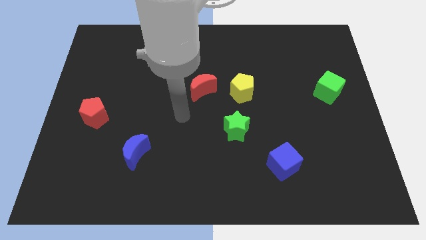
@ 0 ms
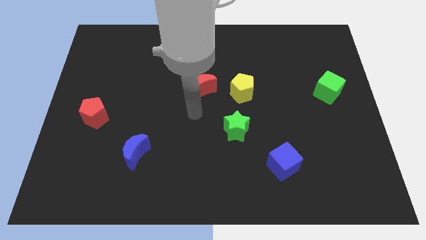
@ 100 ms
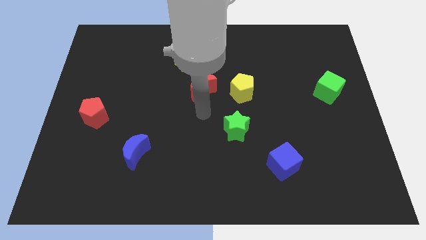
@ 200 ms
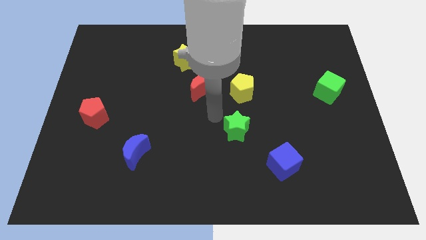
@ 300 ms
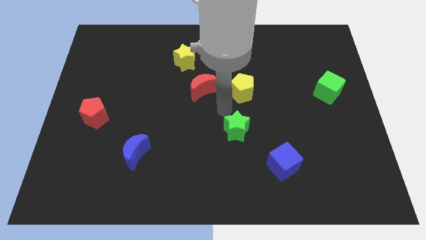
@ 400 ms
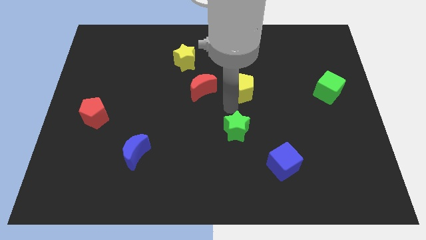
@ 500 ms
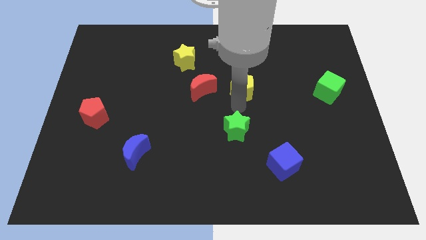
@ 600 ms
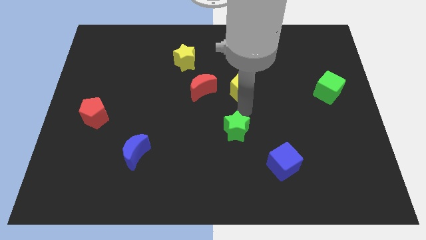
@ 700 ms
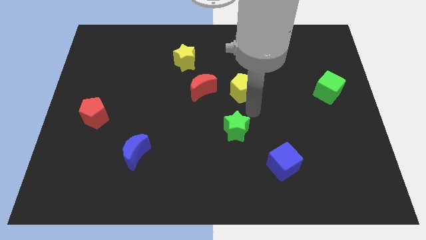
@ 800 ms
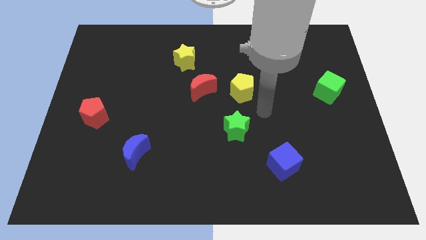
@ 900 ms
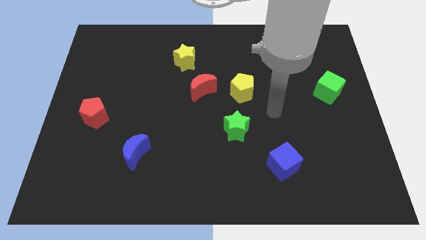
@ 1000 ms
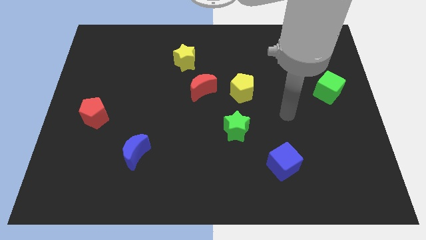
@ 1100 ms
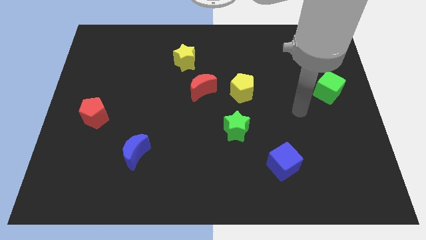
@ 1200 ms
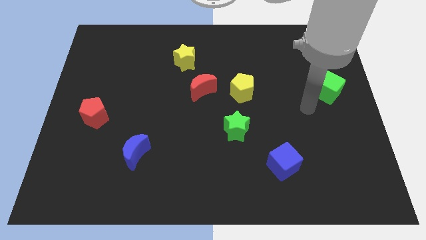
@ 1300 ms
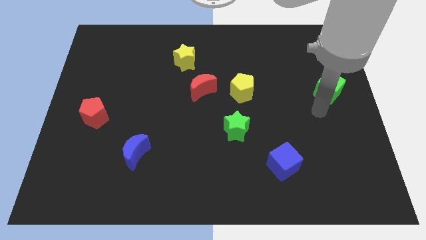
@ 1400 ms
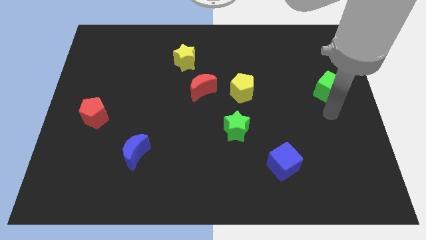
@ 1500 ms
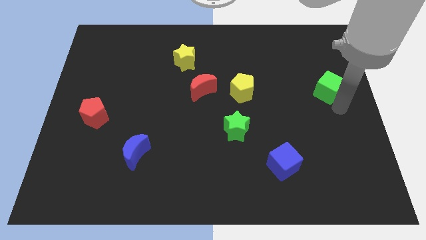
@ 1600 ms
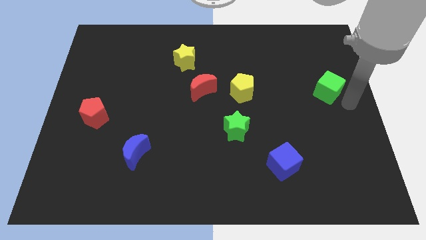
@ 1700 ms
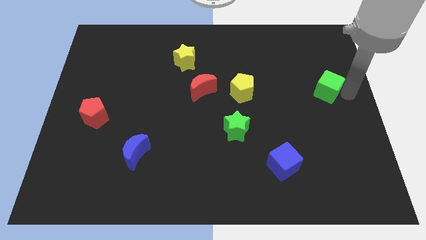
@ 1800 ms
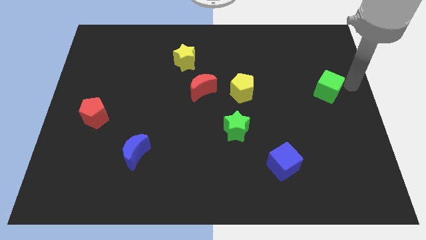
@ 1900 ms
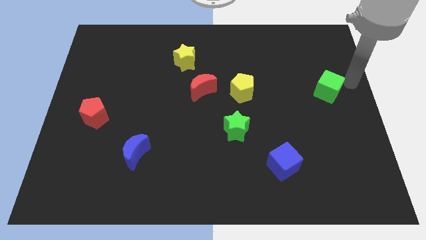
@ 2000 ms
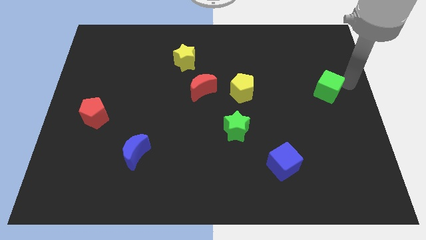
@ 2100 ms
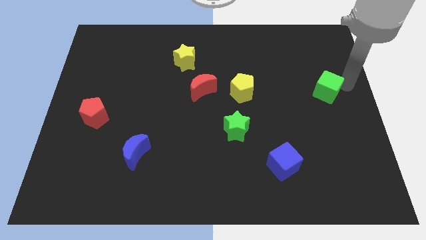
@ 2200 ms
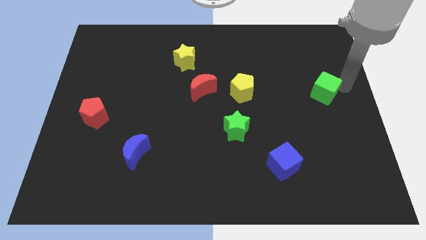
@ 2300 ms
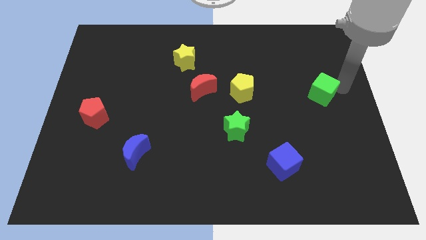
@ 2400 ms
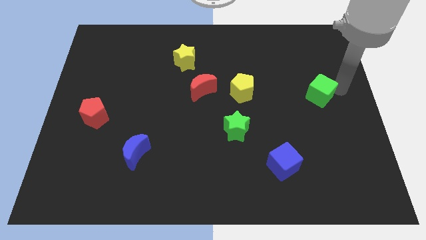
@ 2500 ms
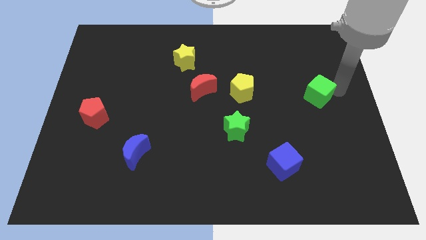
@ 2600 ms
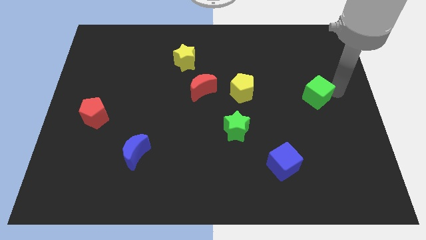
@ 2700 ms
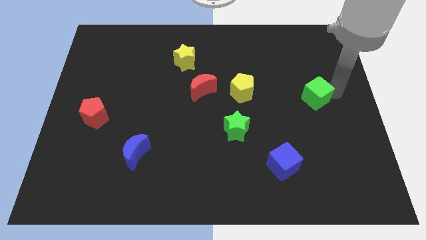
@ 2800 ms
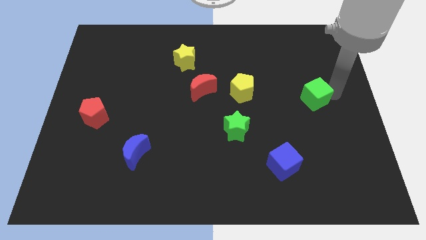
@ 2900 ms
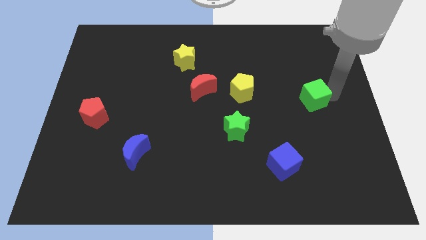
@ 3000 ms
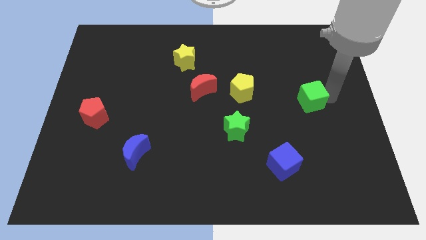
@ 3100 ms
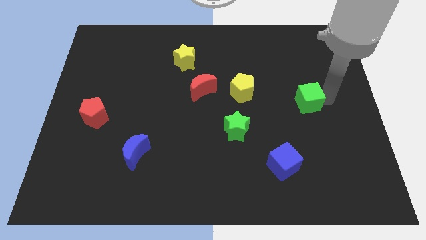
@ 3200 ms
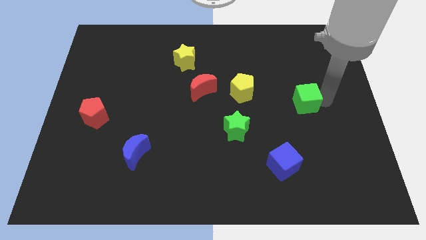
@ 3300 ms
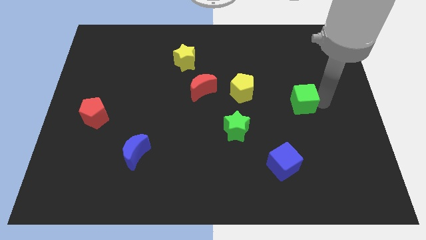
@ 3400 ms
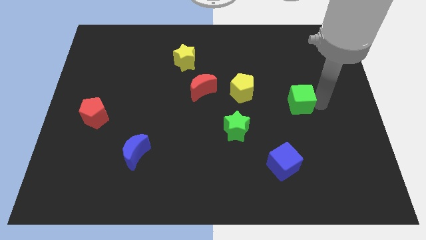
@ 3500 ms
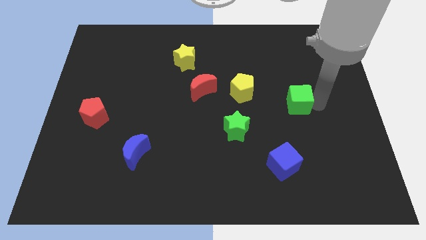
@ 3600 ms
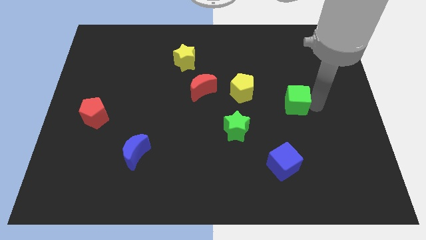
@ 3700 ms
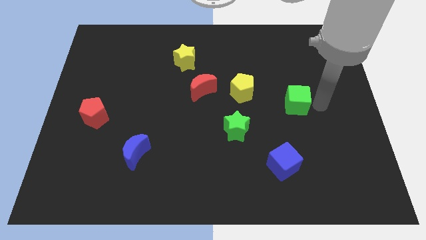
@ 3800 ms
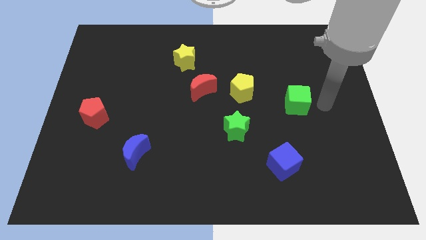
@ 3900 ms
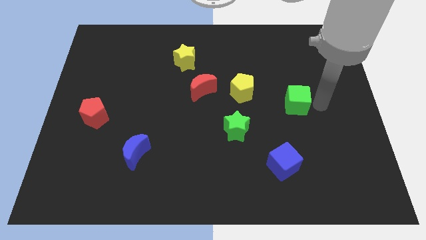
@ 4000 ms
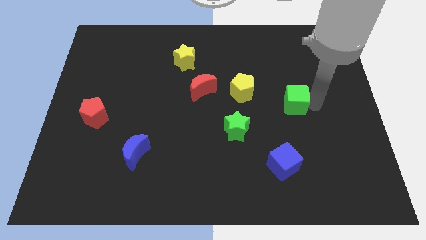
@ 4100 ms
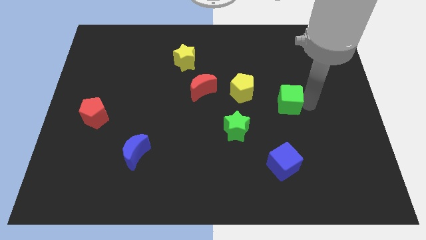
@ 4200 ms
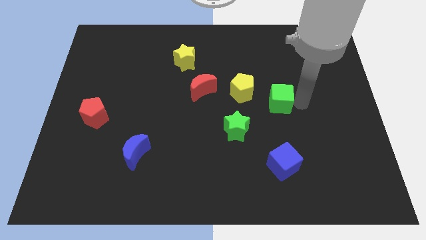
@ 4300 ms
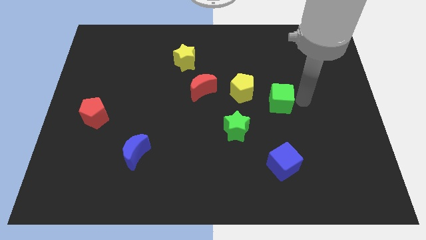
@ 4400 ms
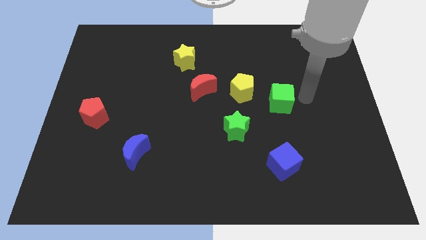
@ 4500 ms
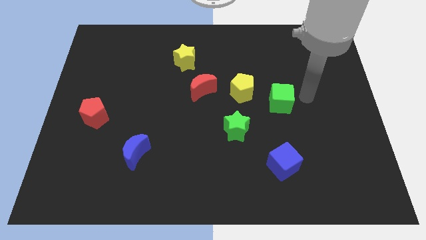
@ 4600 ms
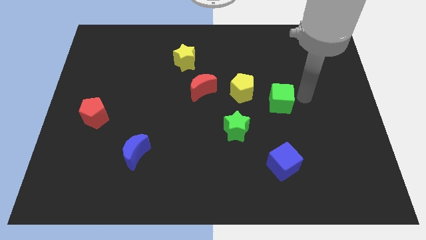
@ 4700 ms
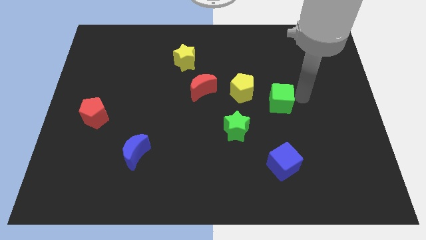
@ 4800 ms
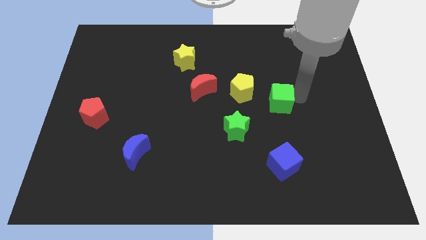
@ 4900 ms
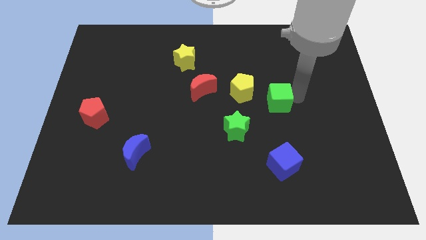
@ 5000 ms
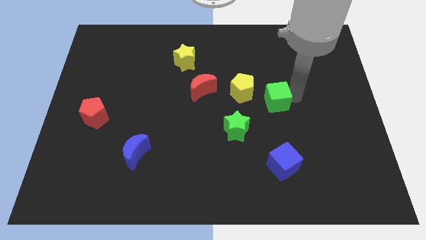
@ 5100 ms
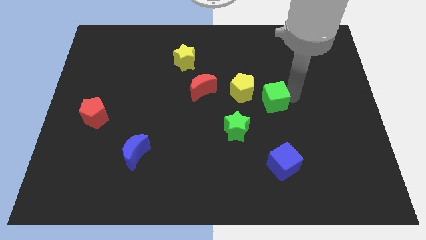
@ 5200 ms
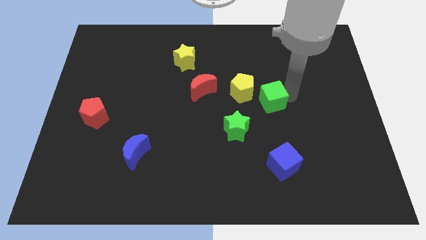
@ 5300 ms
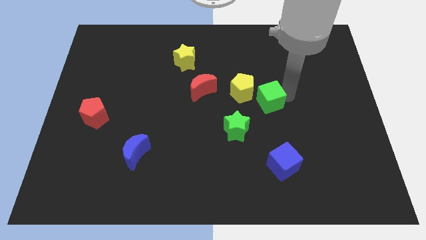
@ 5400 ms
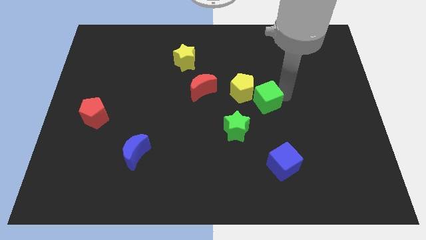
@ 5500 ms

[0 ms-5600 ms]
push the green cube to the middle of the board

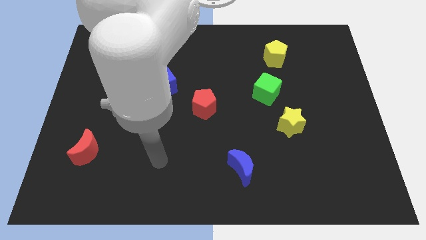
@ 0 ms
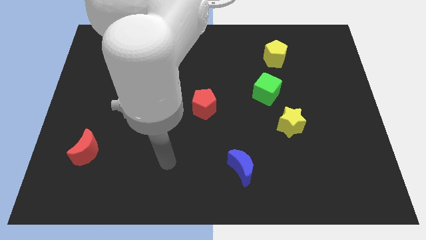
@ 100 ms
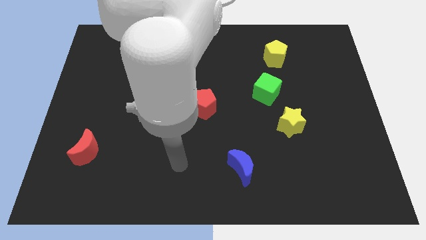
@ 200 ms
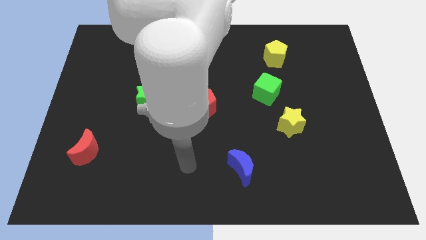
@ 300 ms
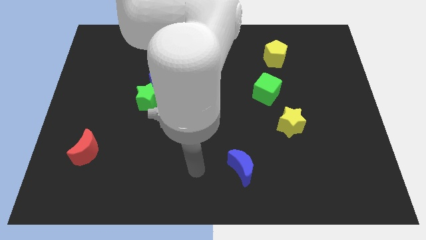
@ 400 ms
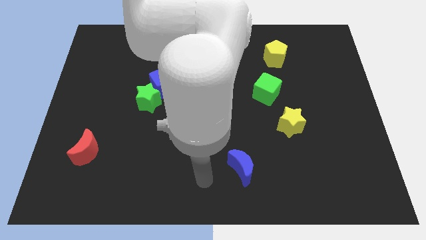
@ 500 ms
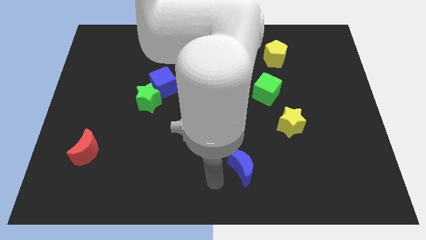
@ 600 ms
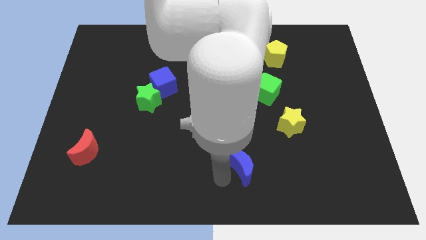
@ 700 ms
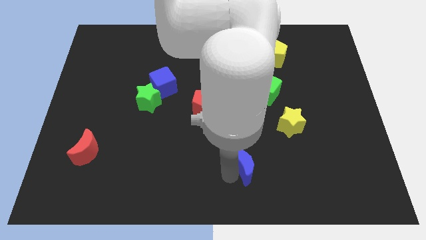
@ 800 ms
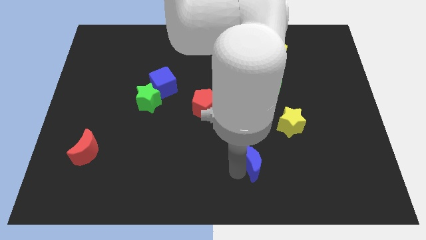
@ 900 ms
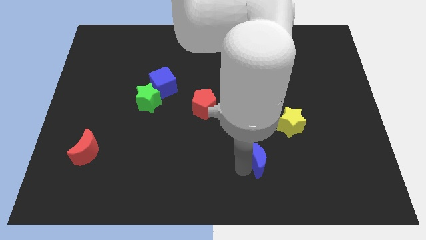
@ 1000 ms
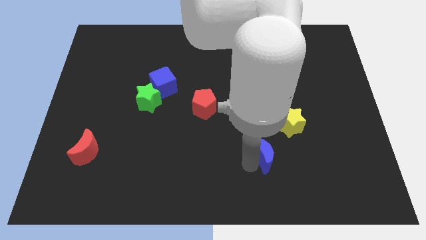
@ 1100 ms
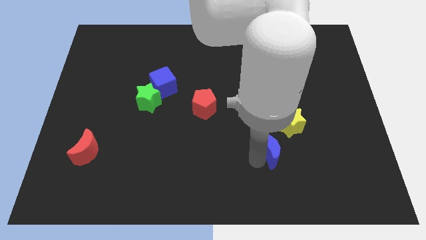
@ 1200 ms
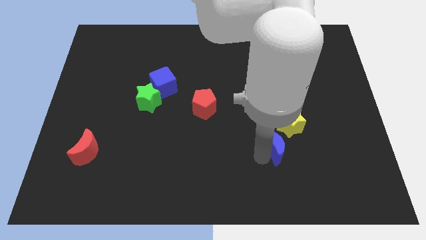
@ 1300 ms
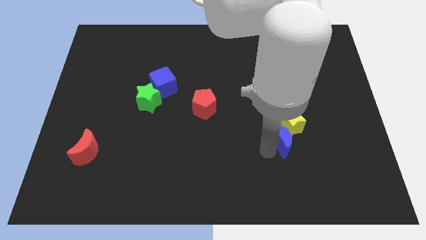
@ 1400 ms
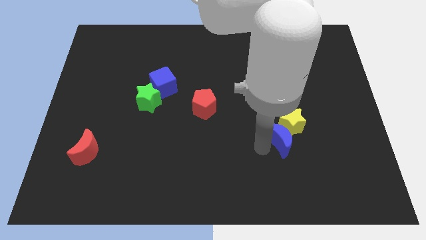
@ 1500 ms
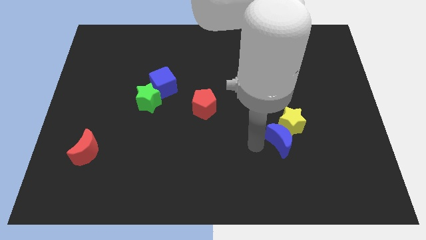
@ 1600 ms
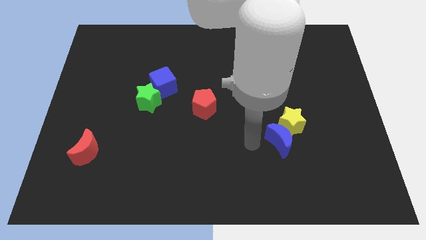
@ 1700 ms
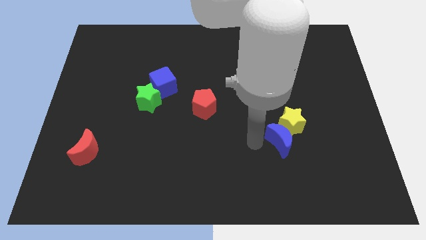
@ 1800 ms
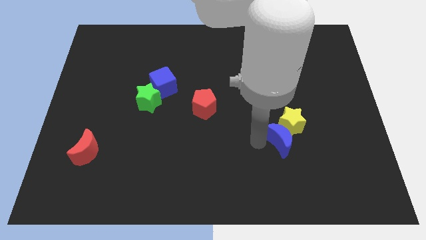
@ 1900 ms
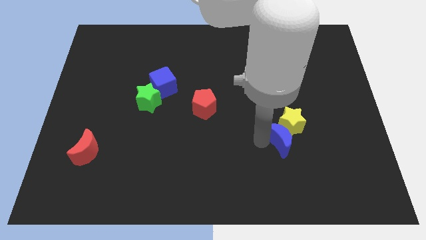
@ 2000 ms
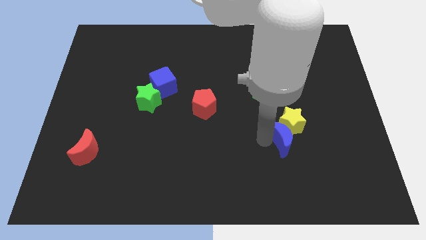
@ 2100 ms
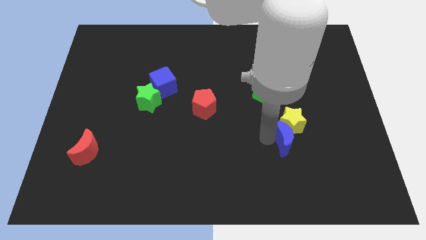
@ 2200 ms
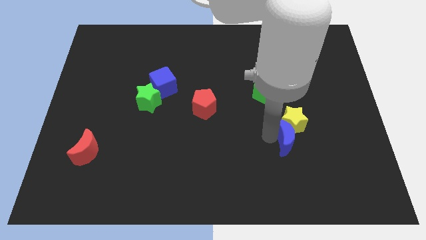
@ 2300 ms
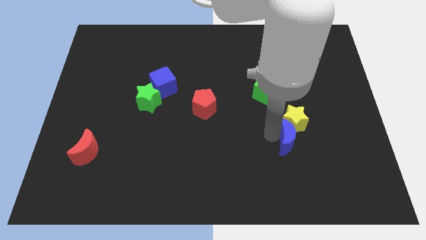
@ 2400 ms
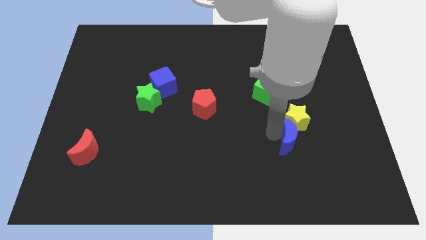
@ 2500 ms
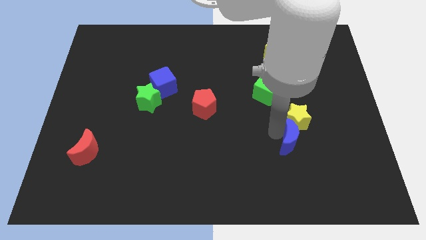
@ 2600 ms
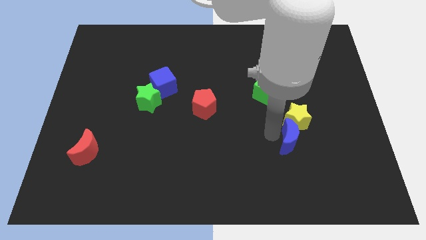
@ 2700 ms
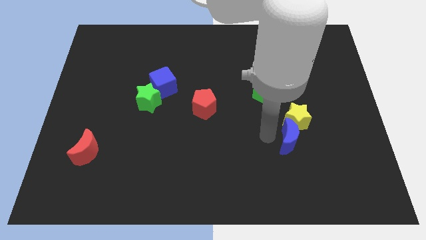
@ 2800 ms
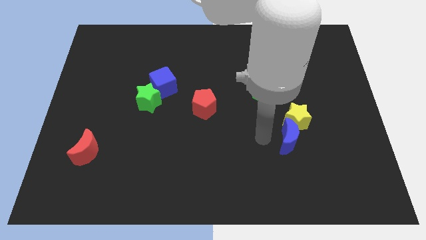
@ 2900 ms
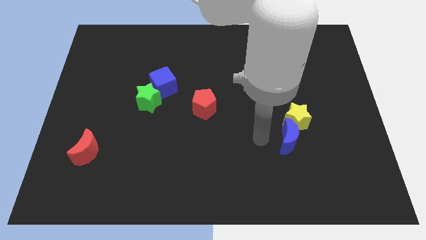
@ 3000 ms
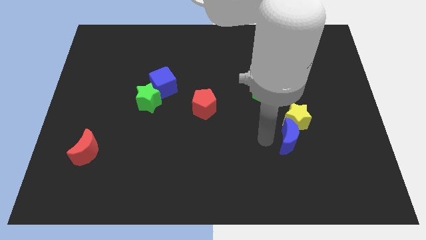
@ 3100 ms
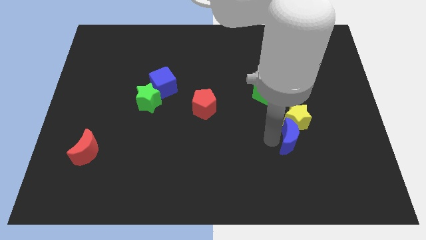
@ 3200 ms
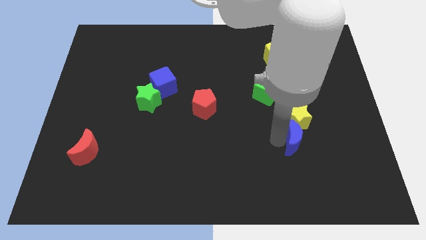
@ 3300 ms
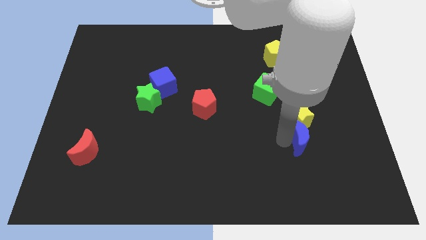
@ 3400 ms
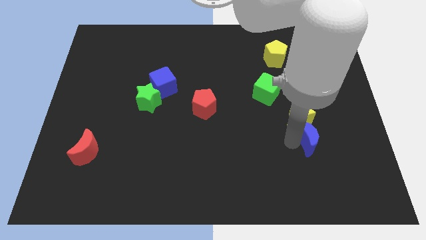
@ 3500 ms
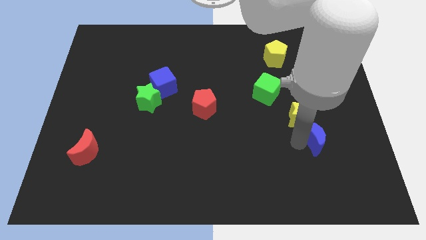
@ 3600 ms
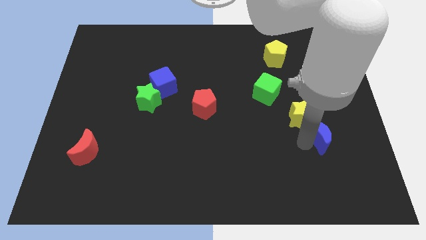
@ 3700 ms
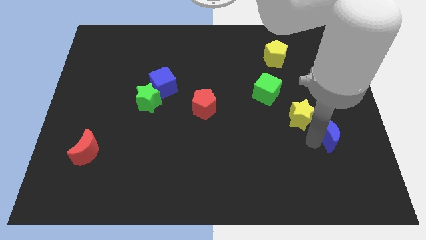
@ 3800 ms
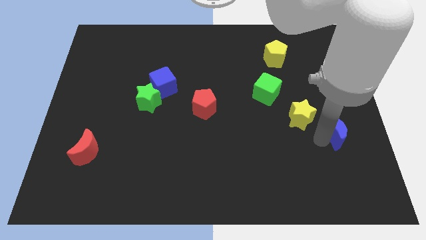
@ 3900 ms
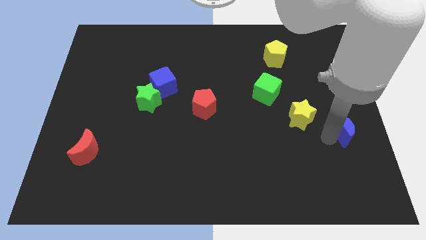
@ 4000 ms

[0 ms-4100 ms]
push the blue moon to the right side of the board
